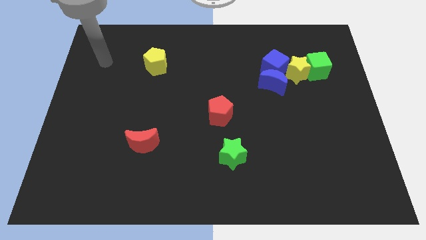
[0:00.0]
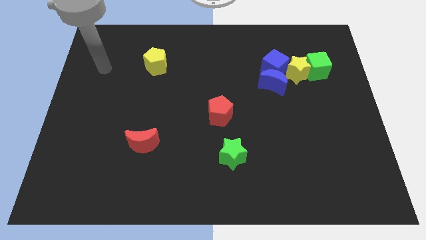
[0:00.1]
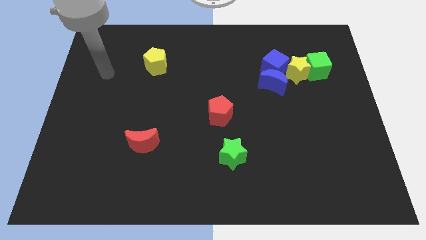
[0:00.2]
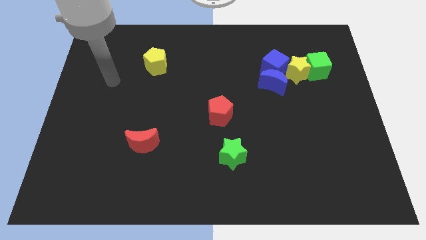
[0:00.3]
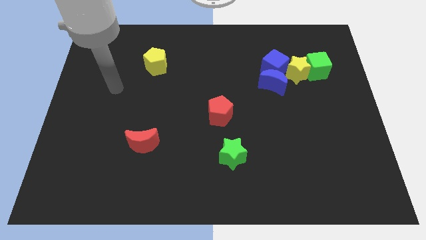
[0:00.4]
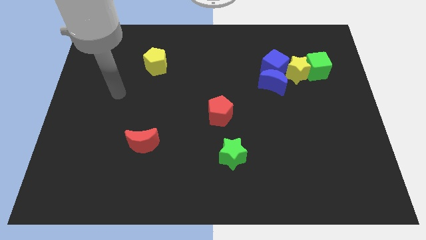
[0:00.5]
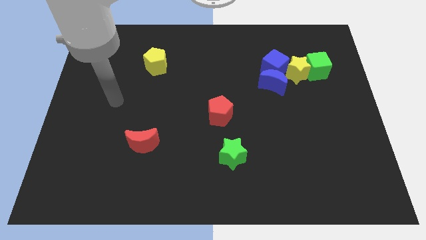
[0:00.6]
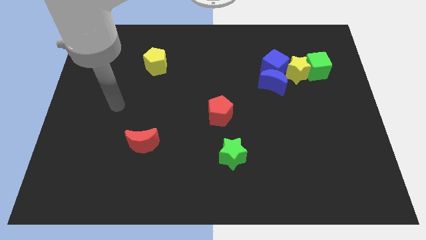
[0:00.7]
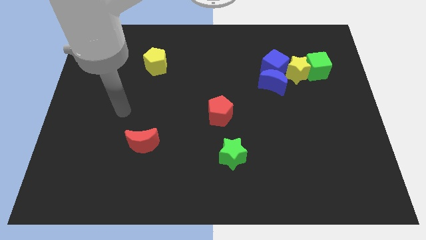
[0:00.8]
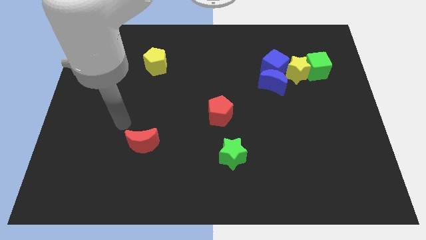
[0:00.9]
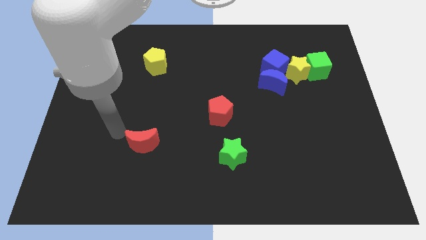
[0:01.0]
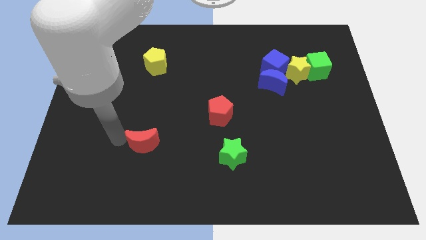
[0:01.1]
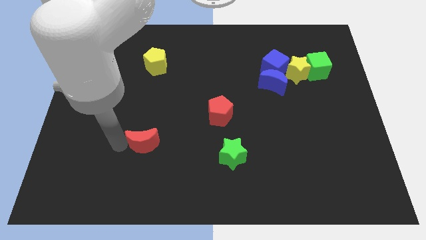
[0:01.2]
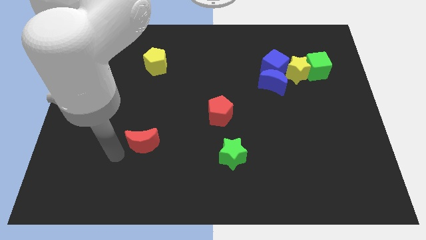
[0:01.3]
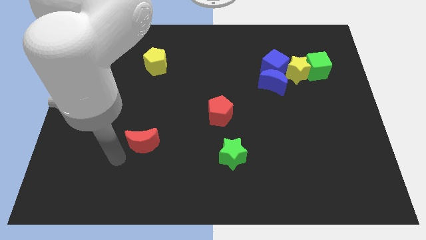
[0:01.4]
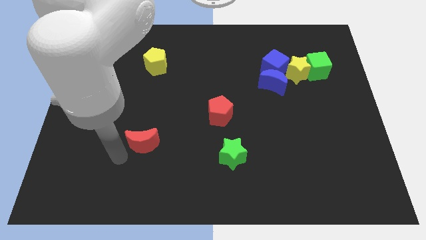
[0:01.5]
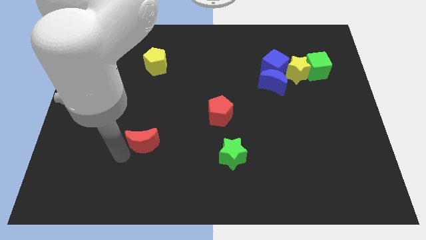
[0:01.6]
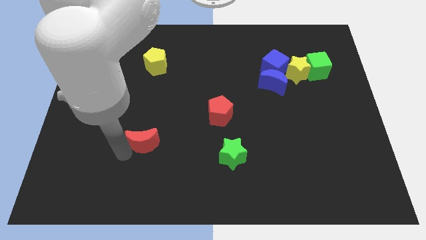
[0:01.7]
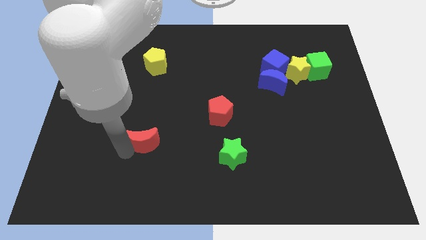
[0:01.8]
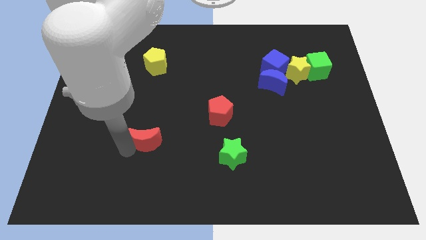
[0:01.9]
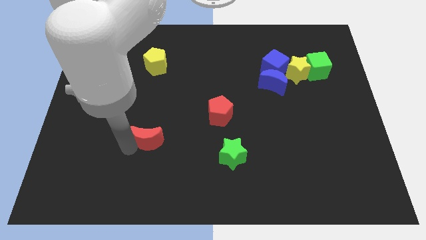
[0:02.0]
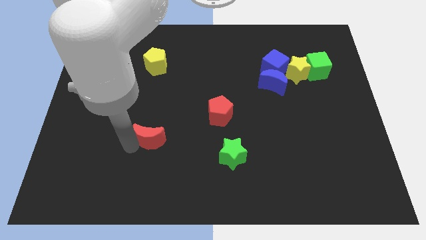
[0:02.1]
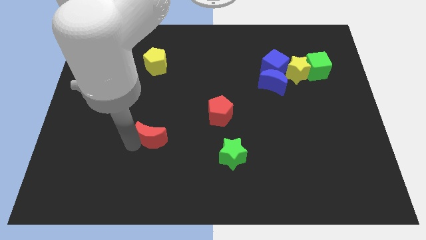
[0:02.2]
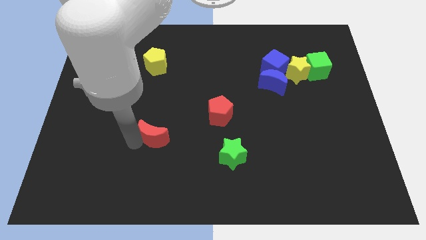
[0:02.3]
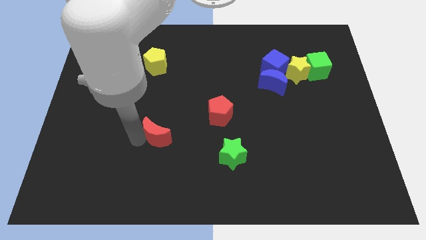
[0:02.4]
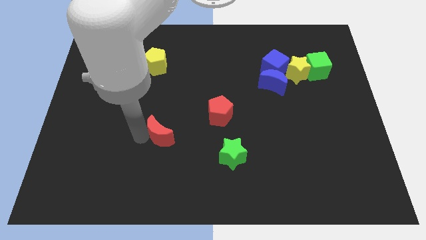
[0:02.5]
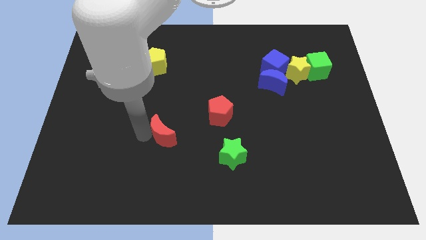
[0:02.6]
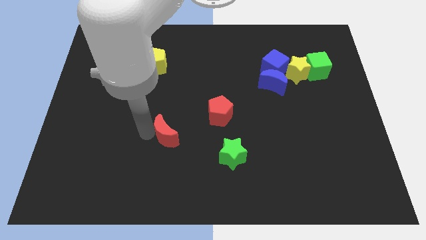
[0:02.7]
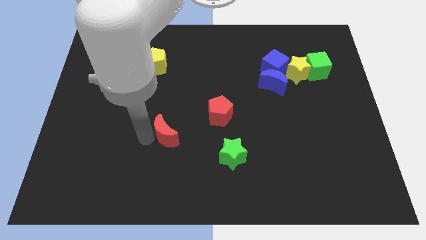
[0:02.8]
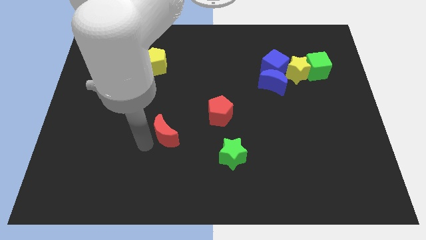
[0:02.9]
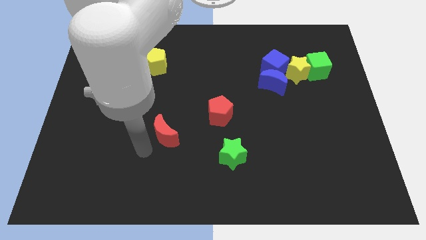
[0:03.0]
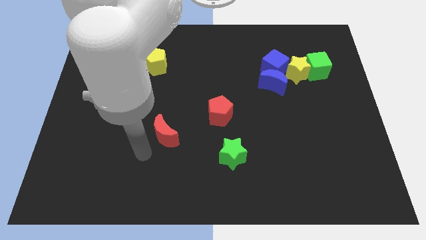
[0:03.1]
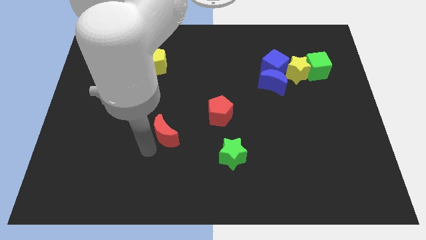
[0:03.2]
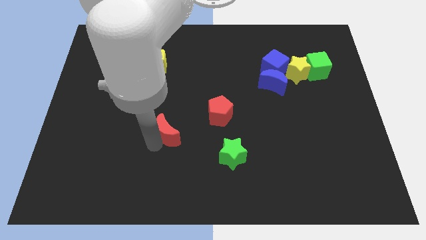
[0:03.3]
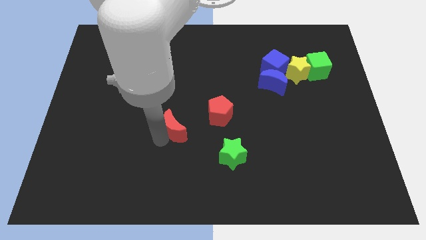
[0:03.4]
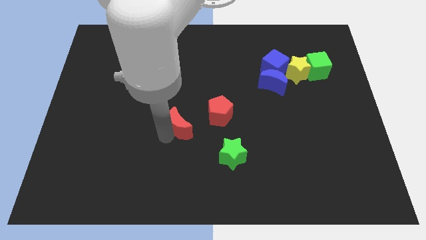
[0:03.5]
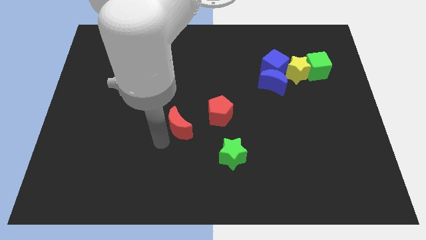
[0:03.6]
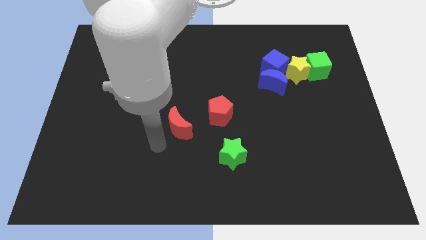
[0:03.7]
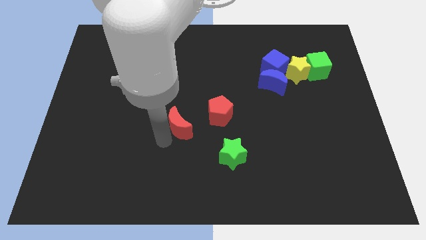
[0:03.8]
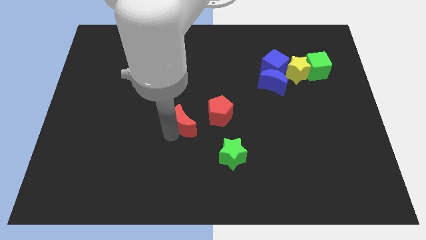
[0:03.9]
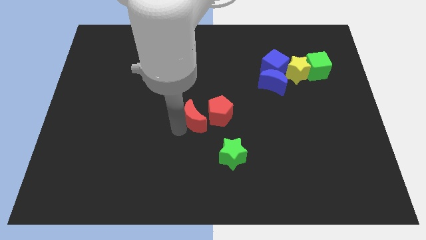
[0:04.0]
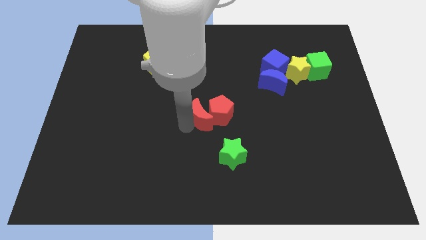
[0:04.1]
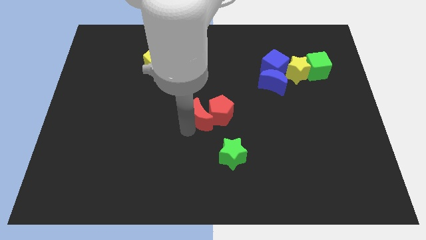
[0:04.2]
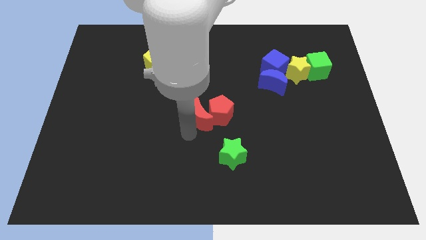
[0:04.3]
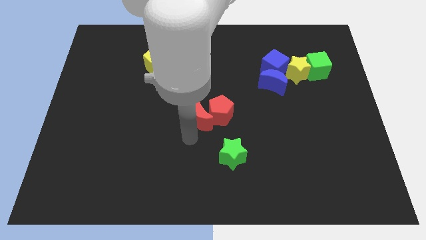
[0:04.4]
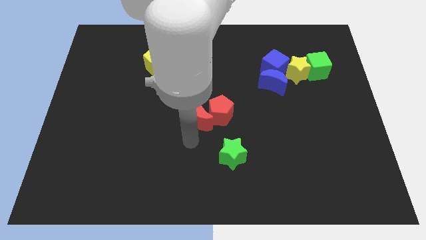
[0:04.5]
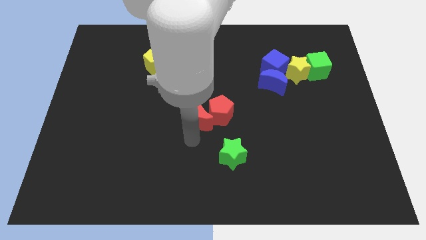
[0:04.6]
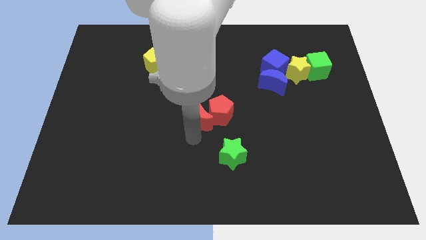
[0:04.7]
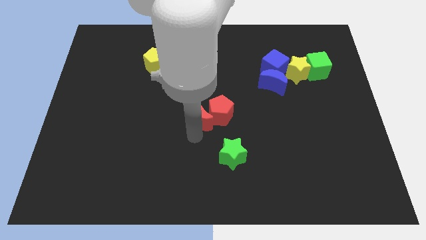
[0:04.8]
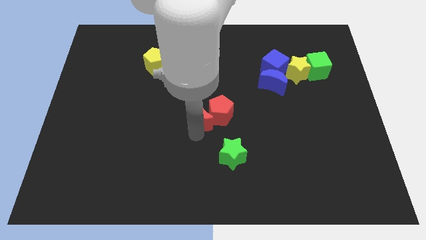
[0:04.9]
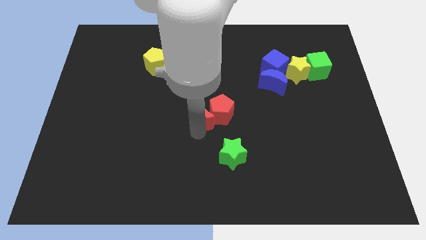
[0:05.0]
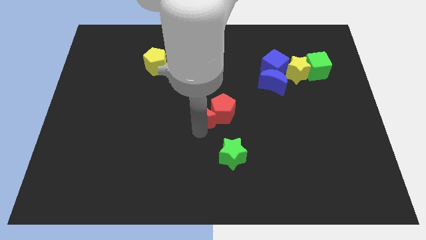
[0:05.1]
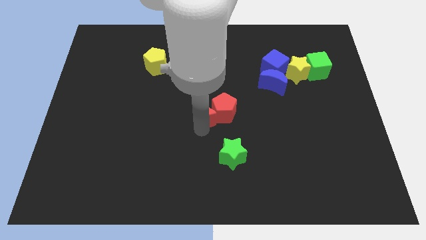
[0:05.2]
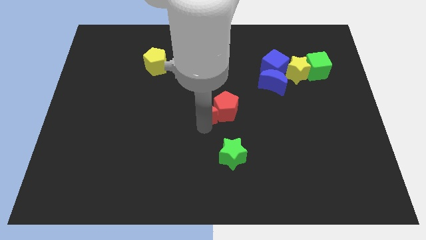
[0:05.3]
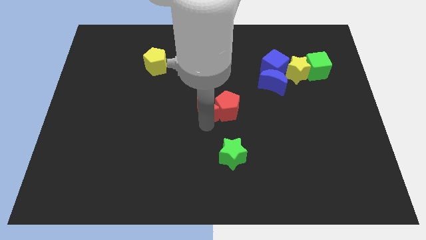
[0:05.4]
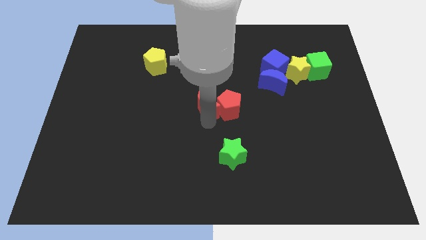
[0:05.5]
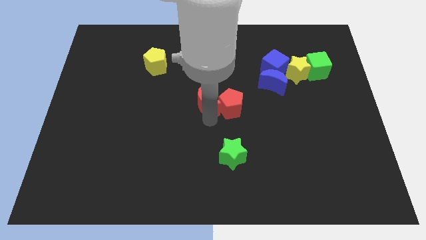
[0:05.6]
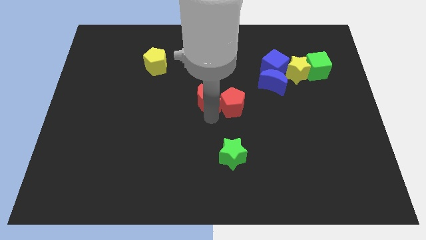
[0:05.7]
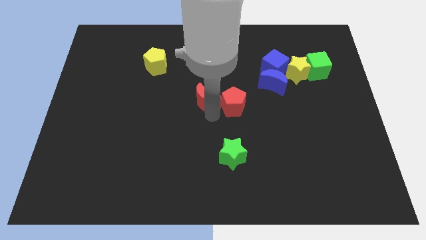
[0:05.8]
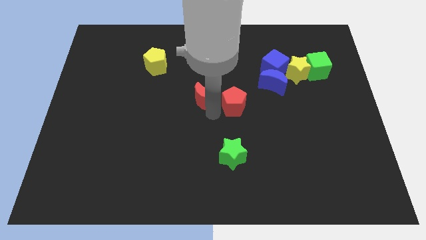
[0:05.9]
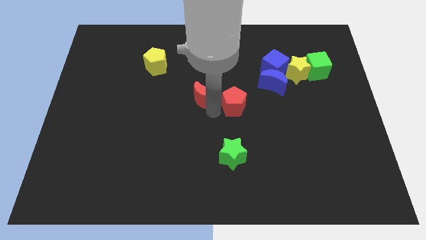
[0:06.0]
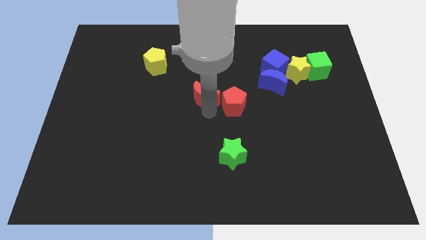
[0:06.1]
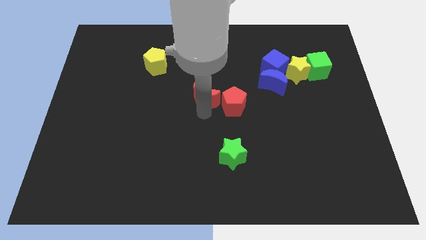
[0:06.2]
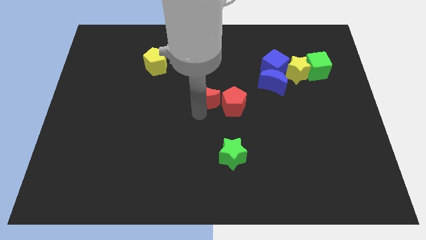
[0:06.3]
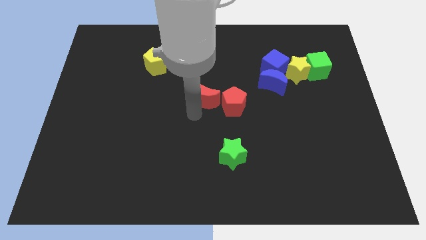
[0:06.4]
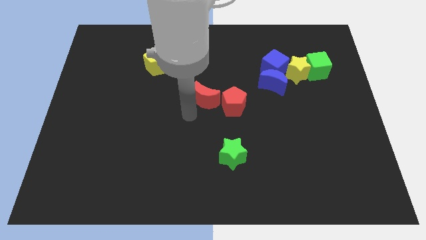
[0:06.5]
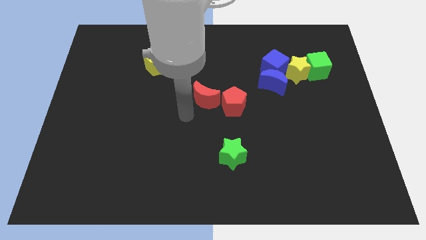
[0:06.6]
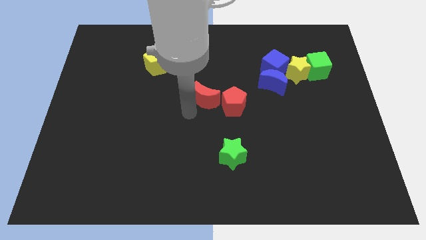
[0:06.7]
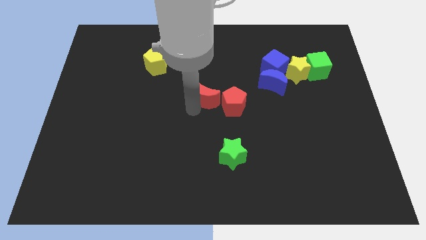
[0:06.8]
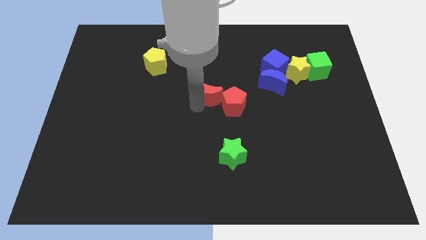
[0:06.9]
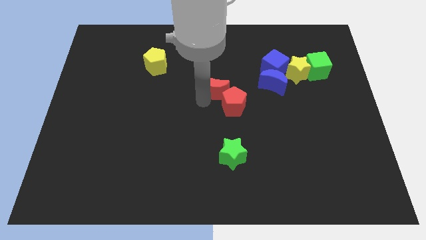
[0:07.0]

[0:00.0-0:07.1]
move the red moon up and then right

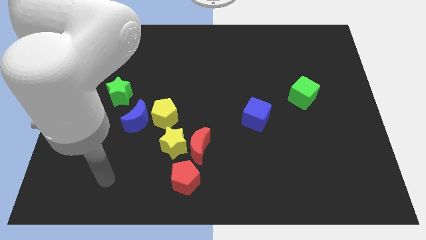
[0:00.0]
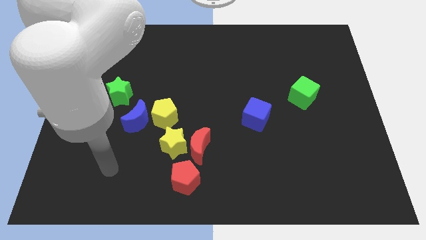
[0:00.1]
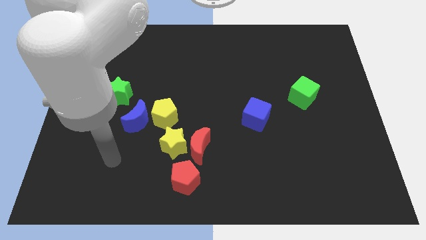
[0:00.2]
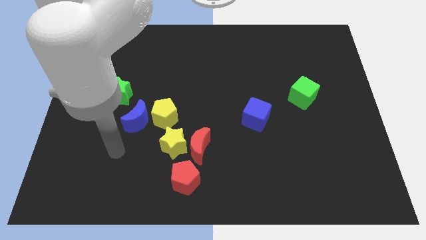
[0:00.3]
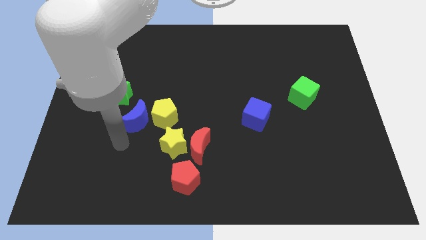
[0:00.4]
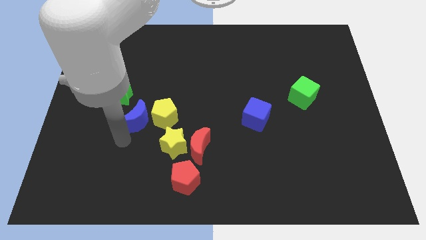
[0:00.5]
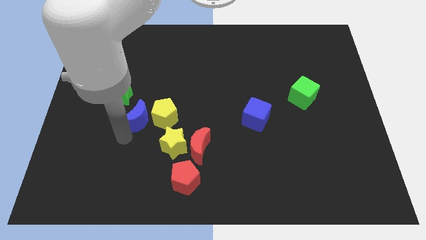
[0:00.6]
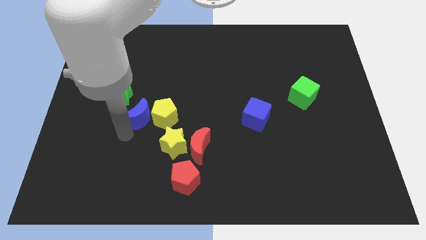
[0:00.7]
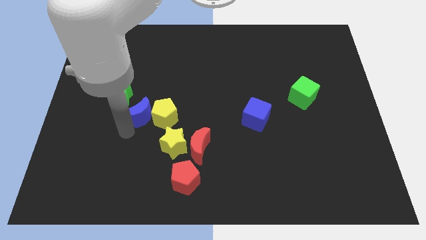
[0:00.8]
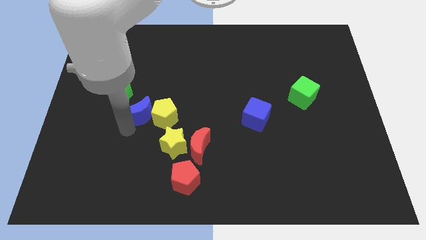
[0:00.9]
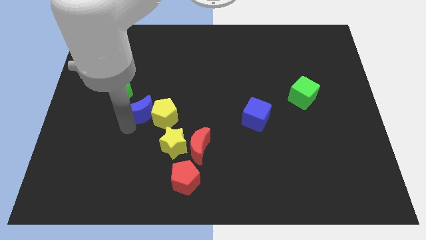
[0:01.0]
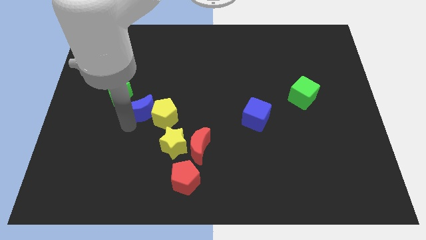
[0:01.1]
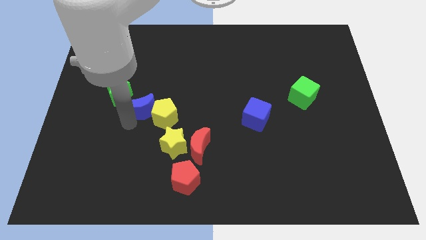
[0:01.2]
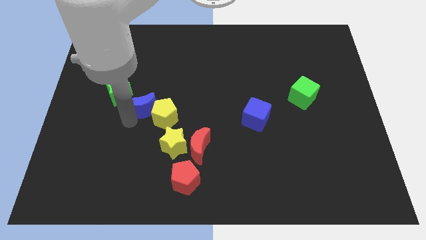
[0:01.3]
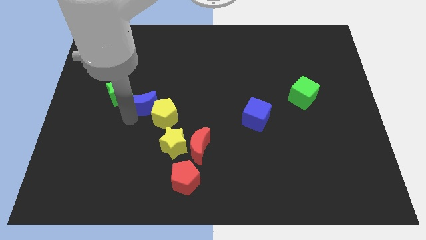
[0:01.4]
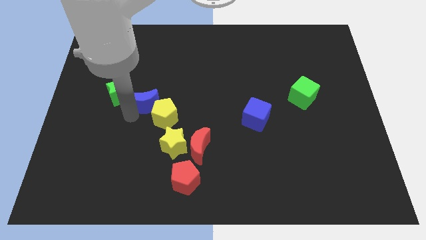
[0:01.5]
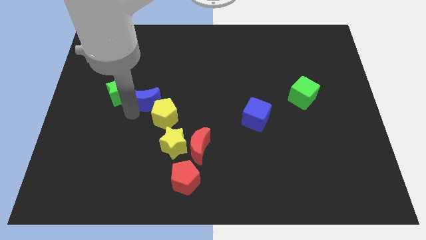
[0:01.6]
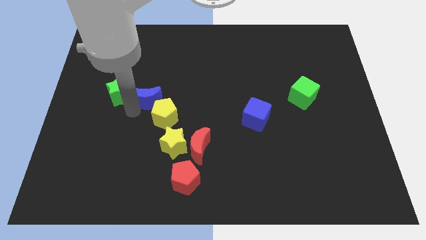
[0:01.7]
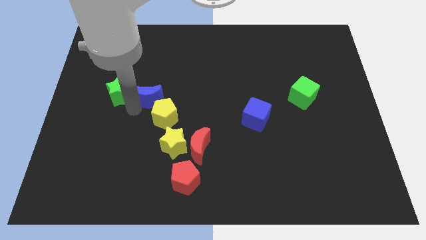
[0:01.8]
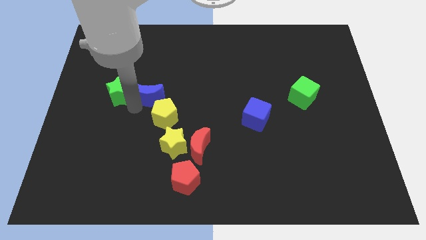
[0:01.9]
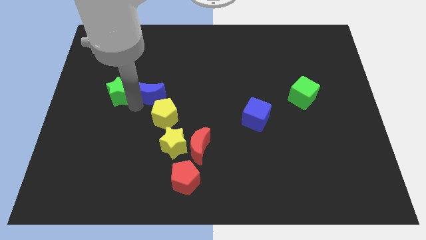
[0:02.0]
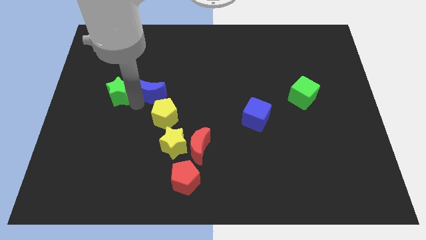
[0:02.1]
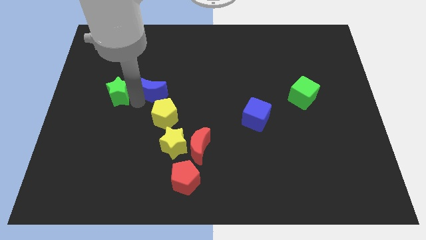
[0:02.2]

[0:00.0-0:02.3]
slightly move the blue moon diagonally upwards and to the right
